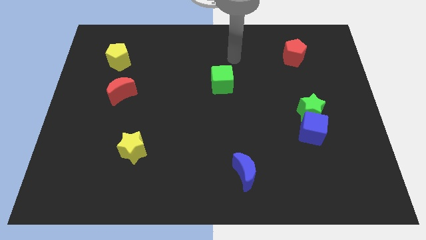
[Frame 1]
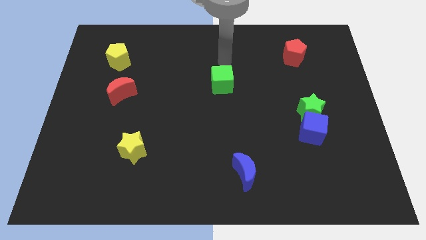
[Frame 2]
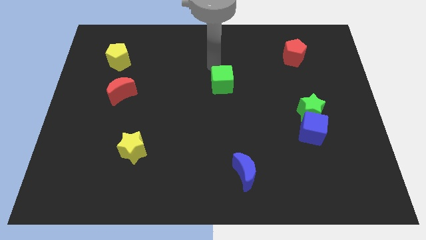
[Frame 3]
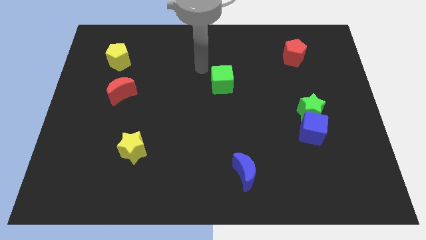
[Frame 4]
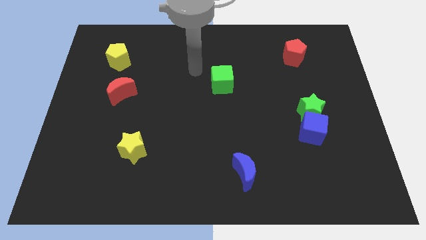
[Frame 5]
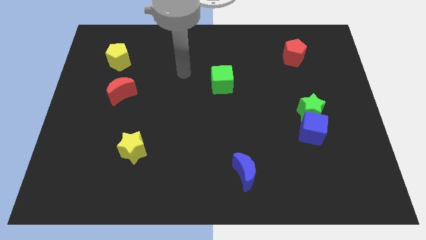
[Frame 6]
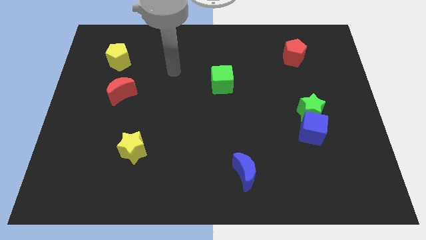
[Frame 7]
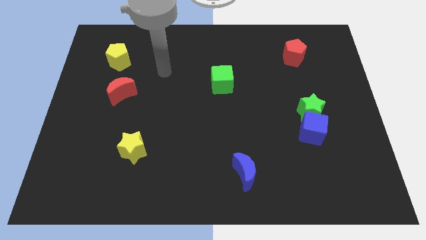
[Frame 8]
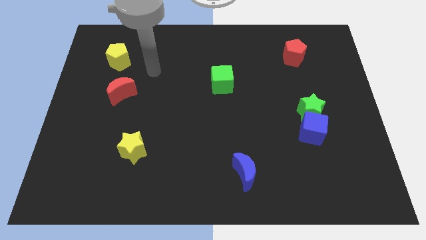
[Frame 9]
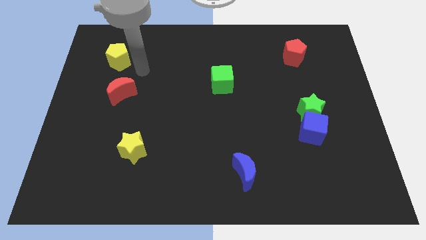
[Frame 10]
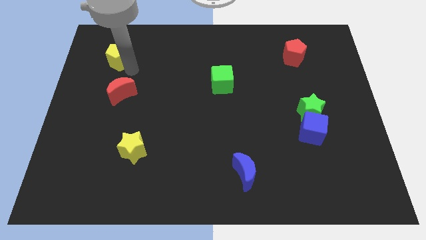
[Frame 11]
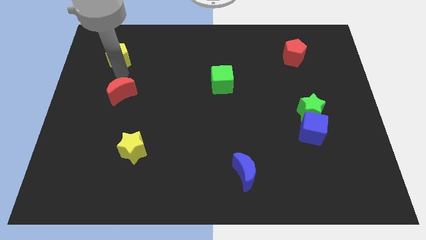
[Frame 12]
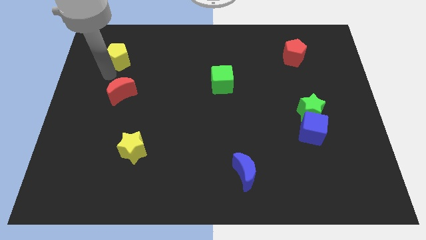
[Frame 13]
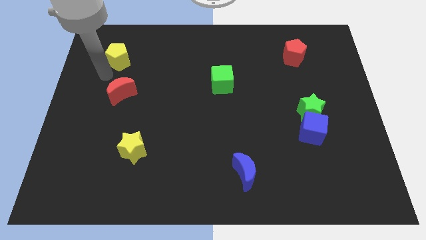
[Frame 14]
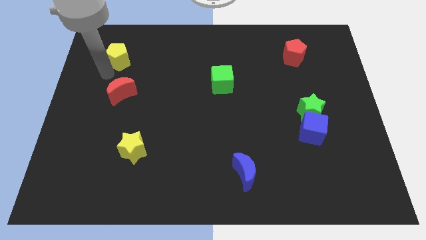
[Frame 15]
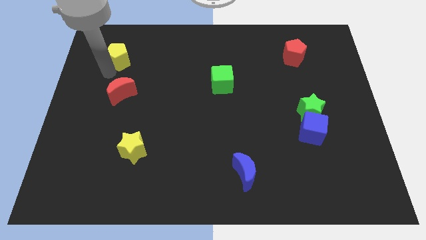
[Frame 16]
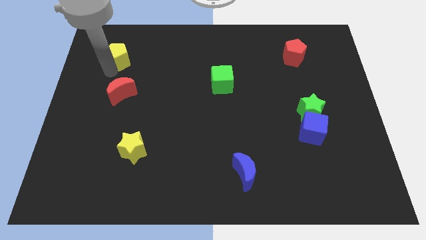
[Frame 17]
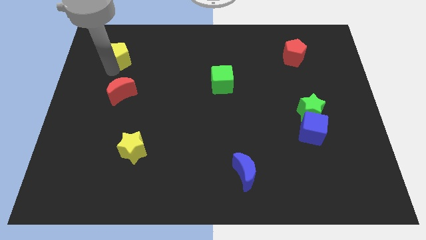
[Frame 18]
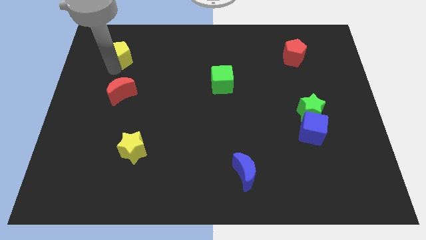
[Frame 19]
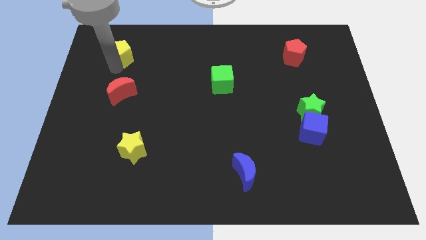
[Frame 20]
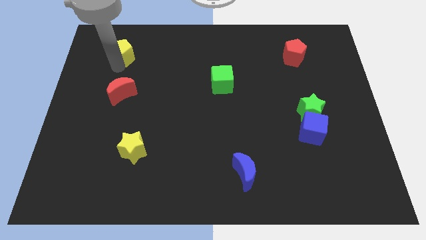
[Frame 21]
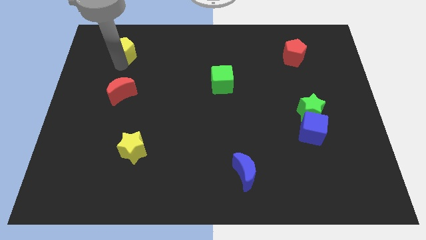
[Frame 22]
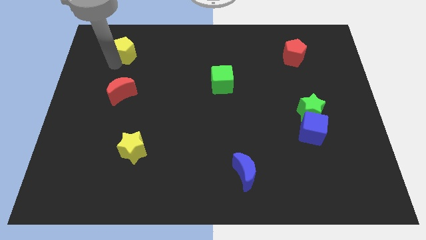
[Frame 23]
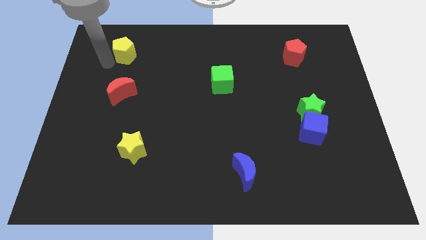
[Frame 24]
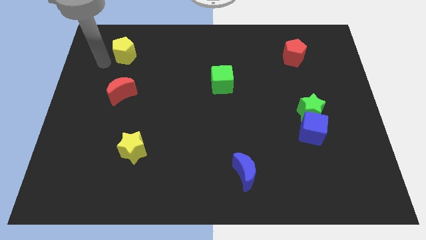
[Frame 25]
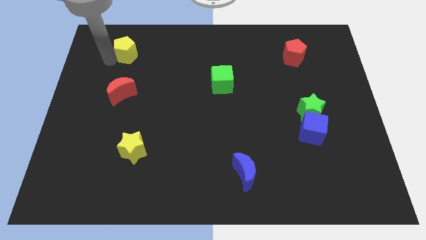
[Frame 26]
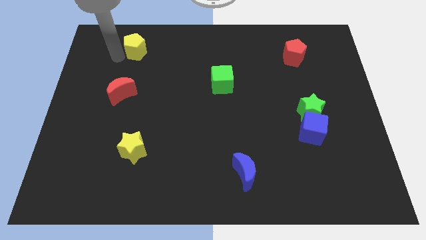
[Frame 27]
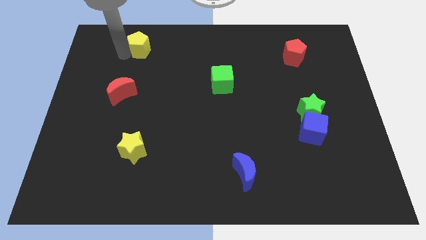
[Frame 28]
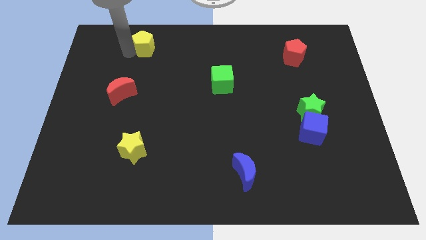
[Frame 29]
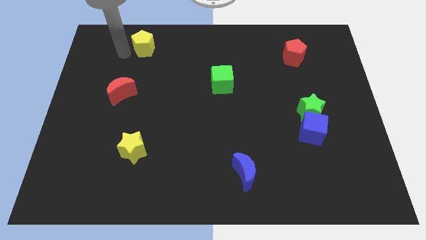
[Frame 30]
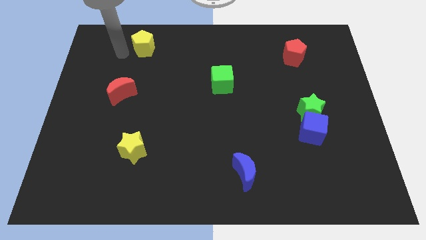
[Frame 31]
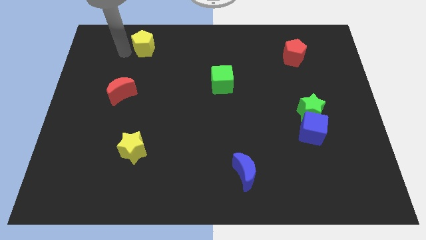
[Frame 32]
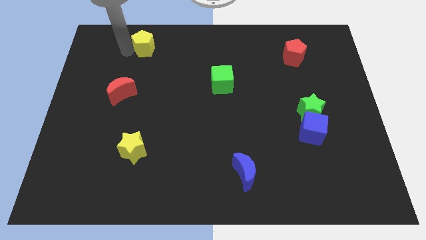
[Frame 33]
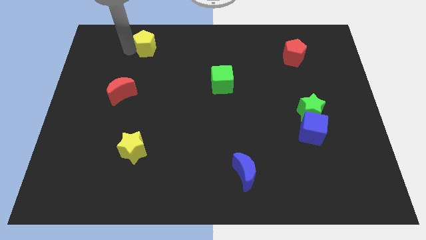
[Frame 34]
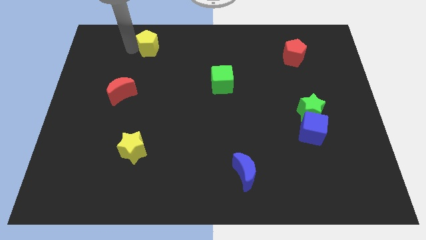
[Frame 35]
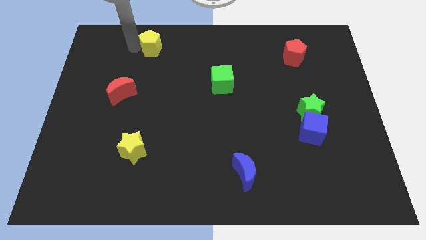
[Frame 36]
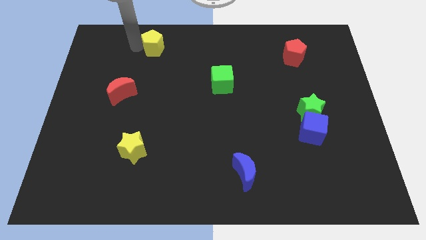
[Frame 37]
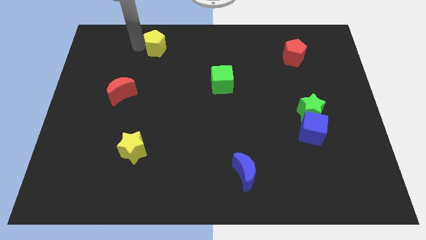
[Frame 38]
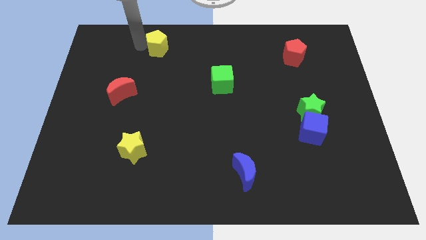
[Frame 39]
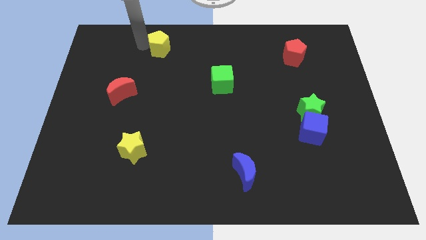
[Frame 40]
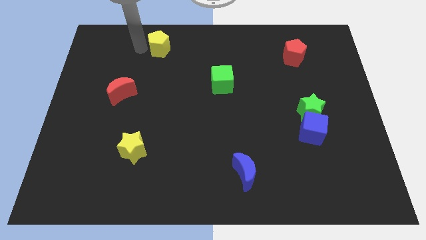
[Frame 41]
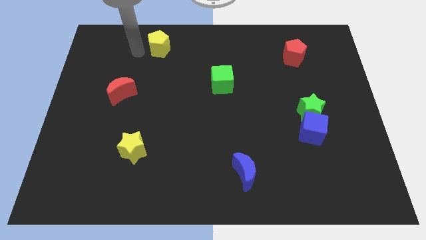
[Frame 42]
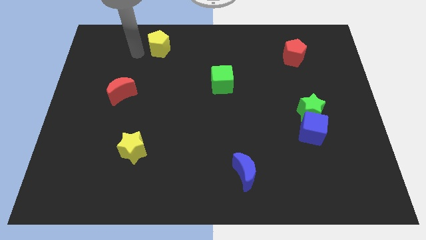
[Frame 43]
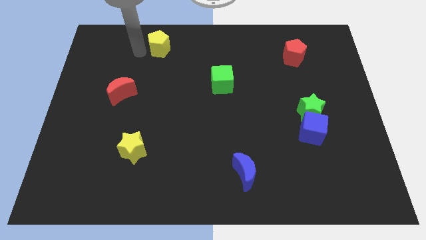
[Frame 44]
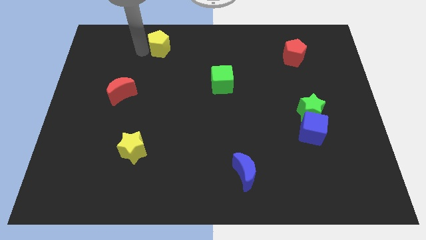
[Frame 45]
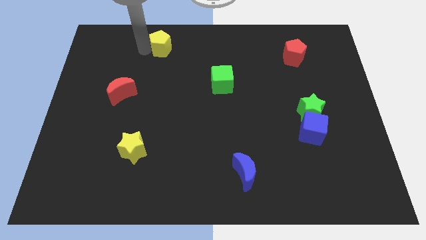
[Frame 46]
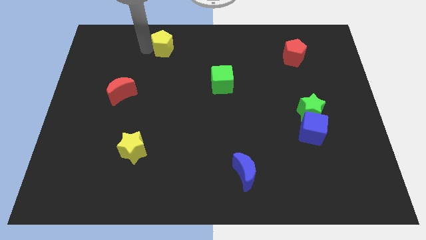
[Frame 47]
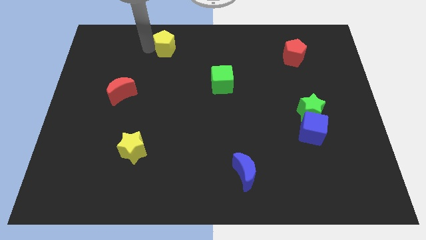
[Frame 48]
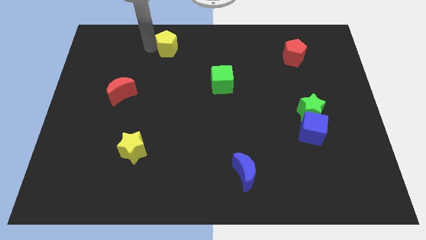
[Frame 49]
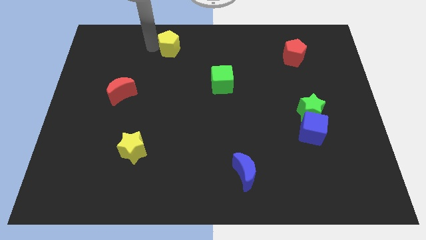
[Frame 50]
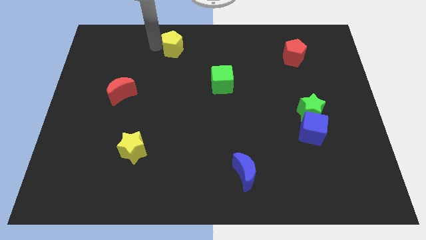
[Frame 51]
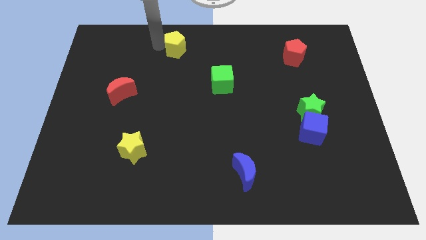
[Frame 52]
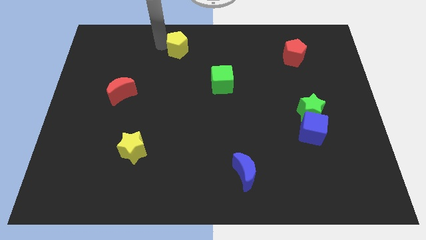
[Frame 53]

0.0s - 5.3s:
slide the yellow pentagon to the top
